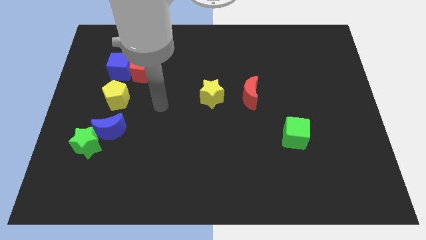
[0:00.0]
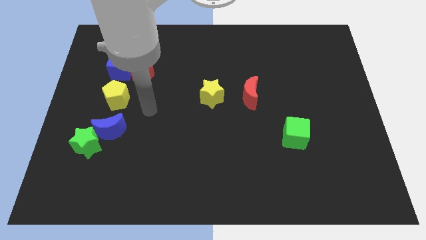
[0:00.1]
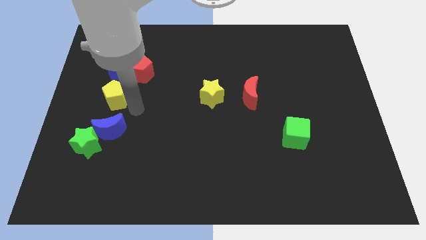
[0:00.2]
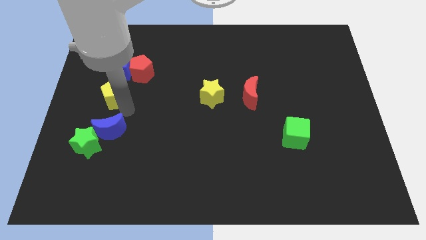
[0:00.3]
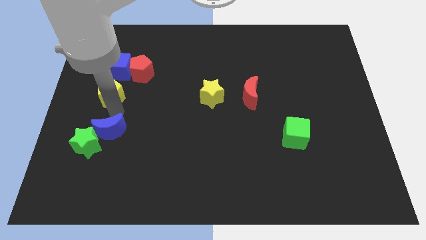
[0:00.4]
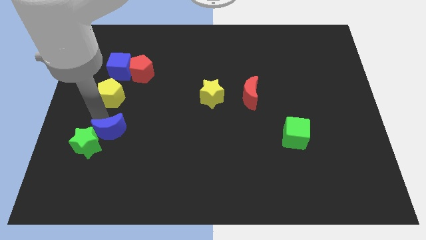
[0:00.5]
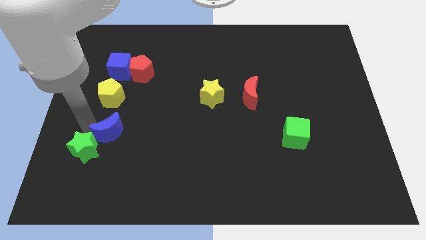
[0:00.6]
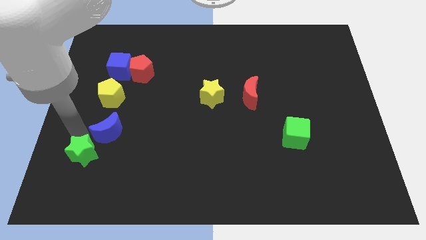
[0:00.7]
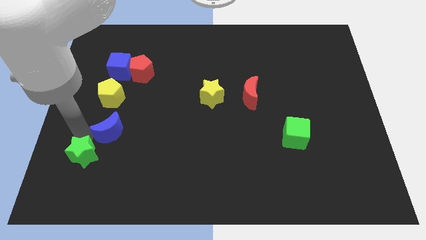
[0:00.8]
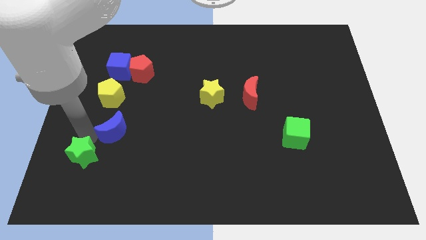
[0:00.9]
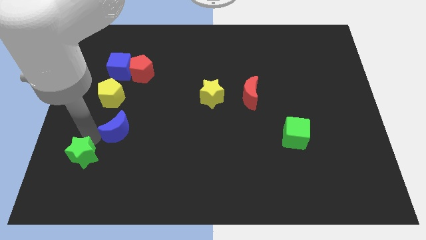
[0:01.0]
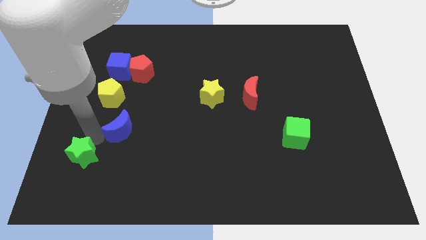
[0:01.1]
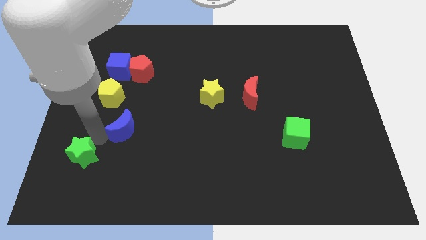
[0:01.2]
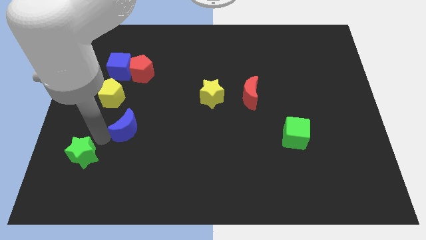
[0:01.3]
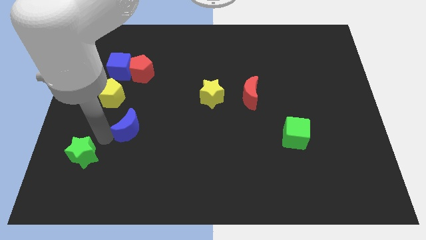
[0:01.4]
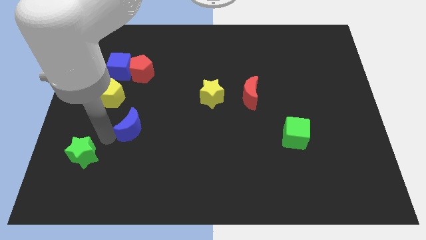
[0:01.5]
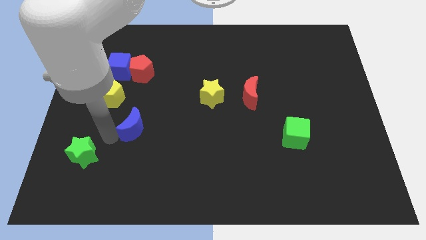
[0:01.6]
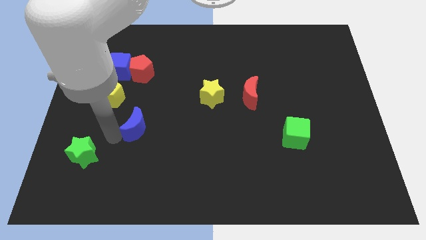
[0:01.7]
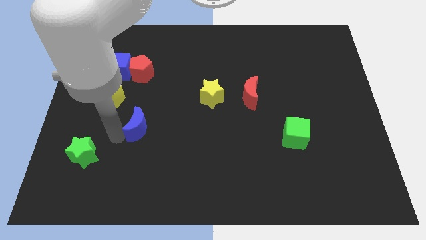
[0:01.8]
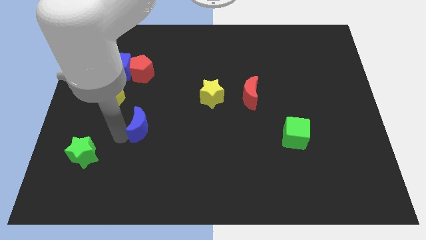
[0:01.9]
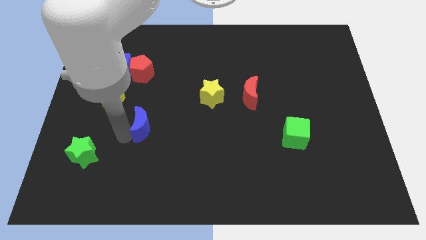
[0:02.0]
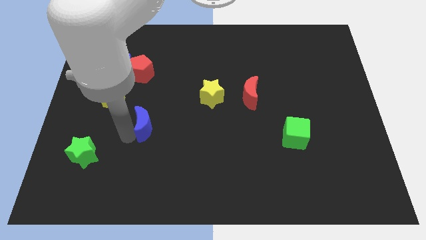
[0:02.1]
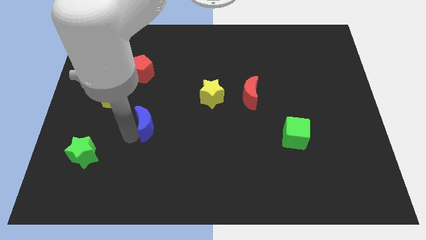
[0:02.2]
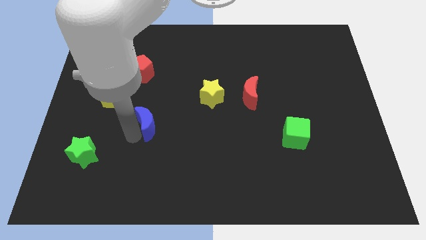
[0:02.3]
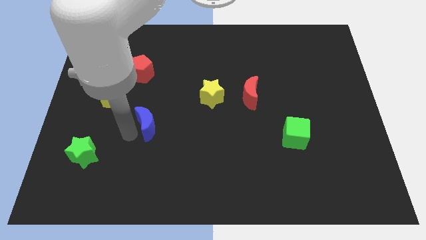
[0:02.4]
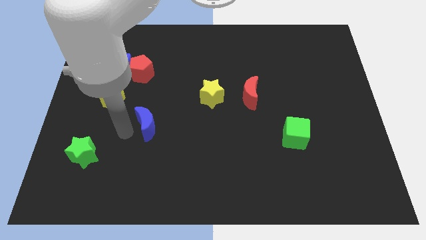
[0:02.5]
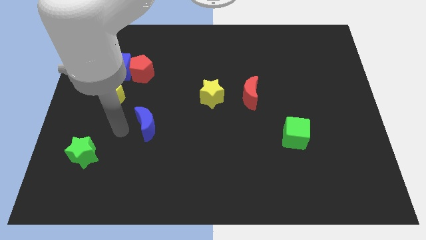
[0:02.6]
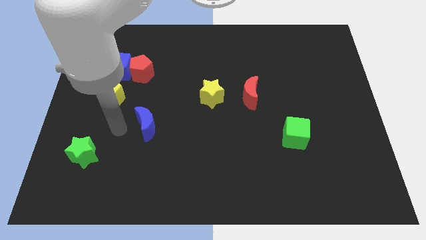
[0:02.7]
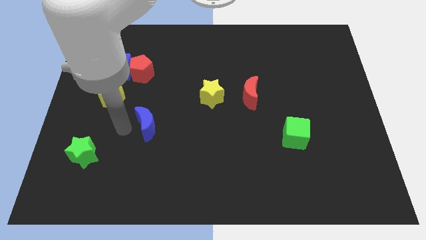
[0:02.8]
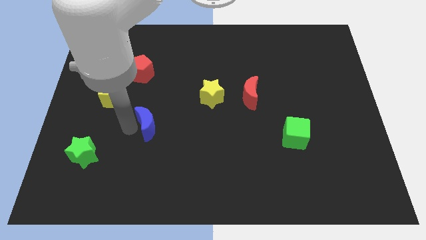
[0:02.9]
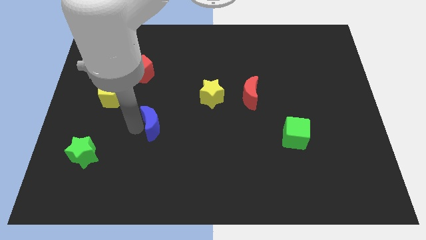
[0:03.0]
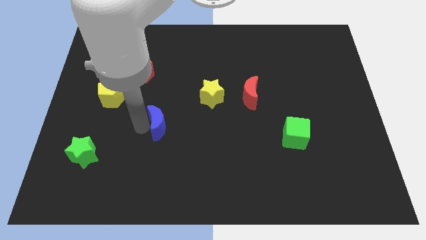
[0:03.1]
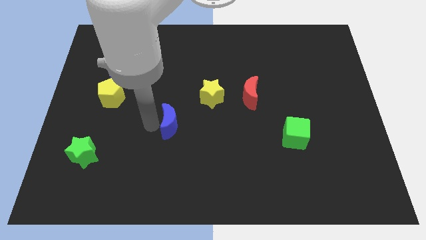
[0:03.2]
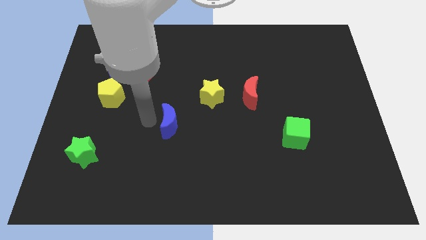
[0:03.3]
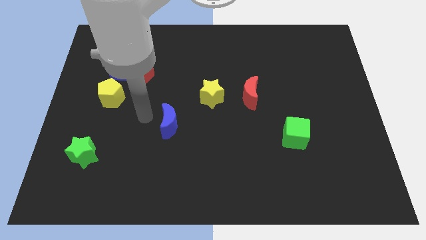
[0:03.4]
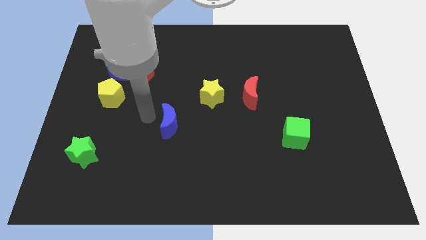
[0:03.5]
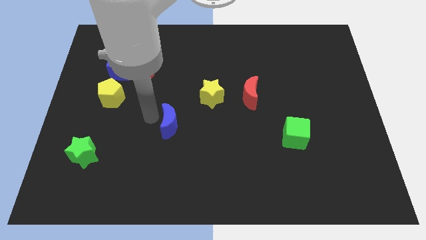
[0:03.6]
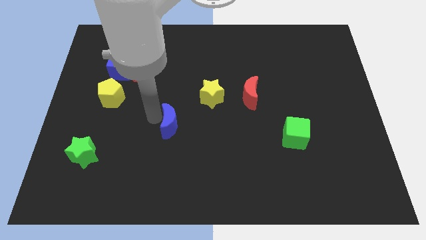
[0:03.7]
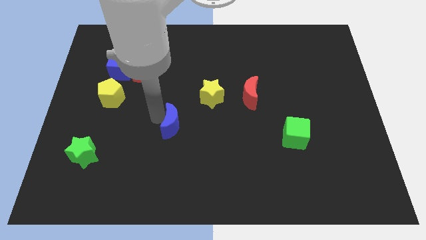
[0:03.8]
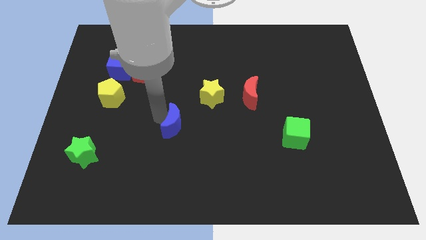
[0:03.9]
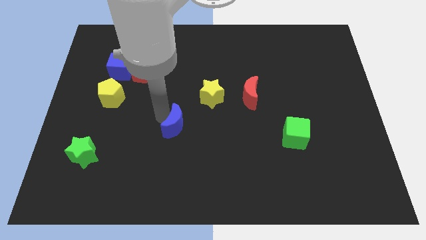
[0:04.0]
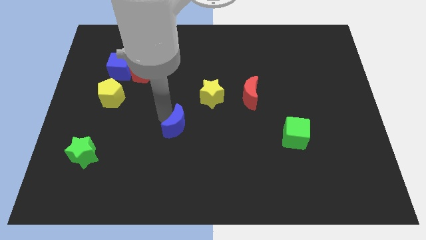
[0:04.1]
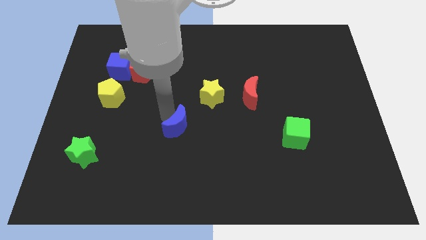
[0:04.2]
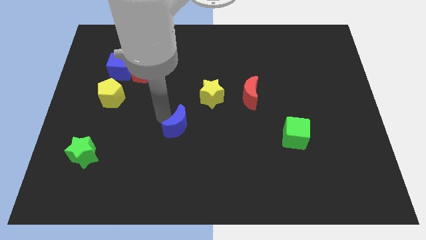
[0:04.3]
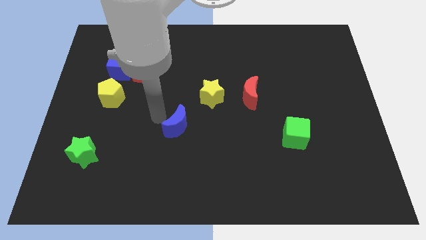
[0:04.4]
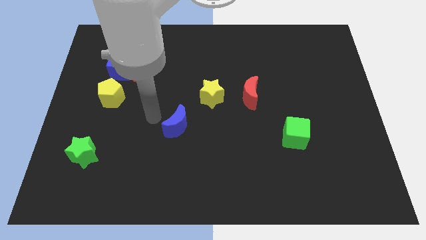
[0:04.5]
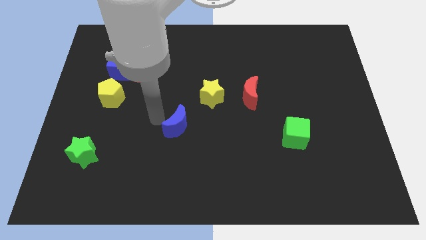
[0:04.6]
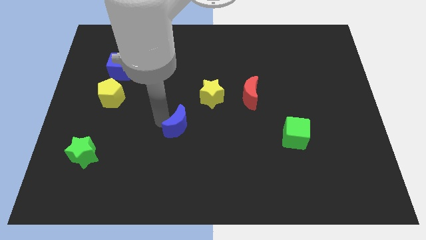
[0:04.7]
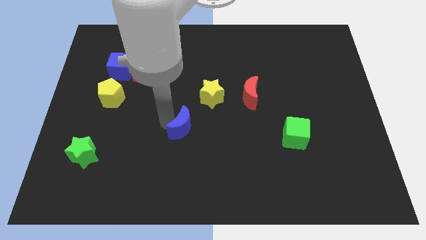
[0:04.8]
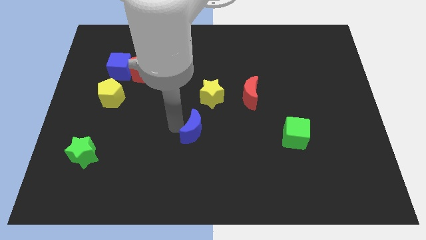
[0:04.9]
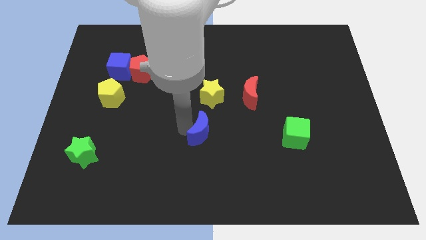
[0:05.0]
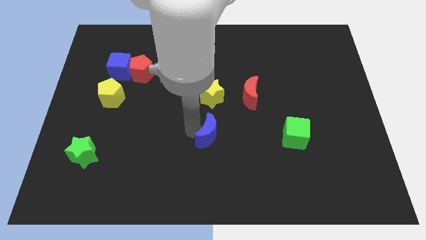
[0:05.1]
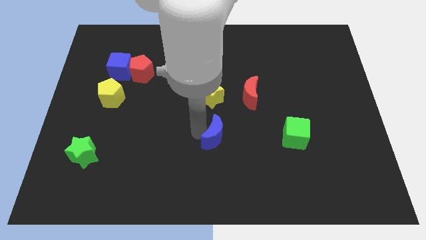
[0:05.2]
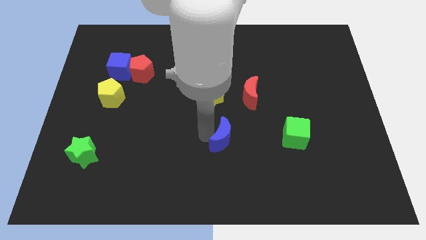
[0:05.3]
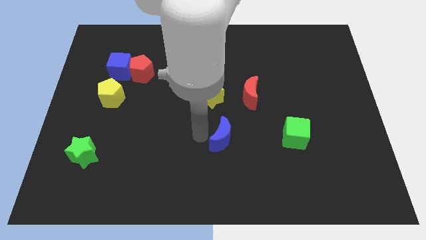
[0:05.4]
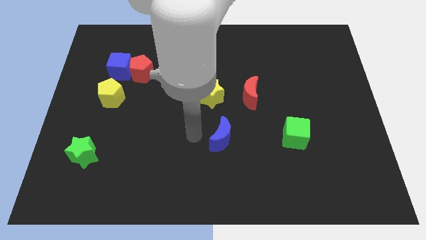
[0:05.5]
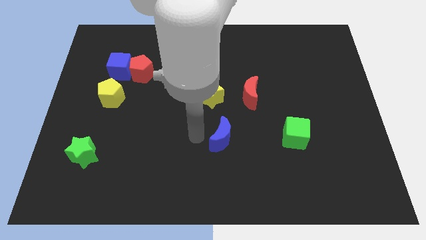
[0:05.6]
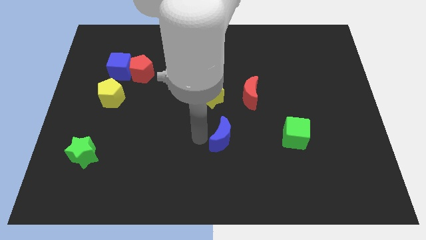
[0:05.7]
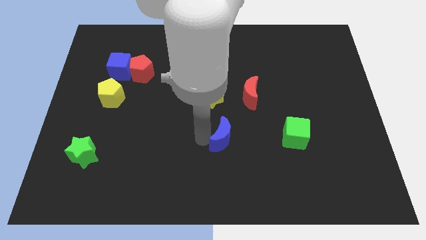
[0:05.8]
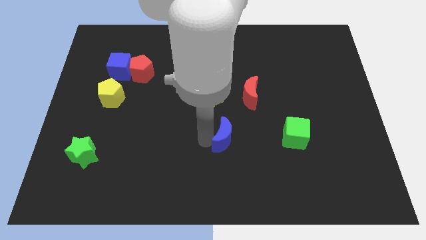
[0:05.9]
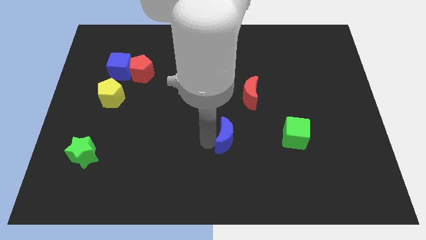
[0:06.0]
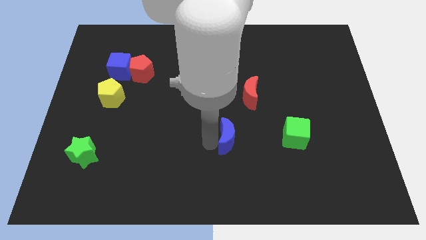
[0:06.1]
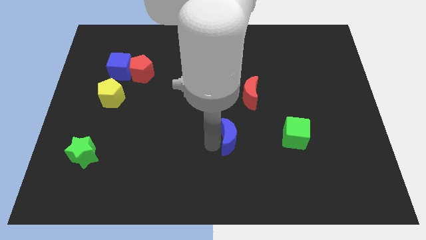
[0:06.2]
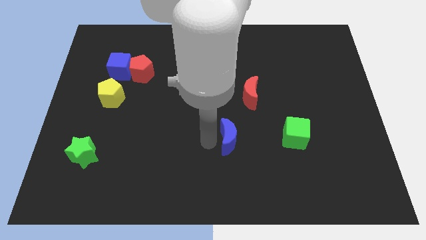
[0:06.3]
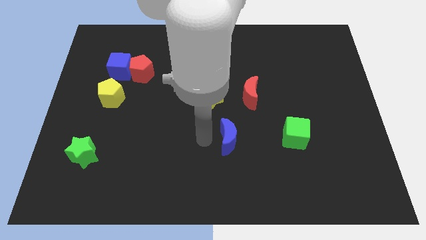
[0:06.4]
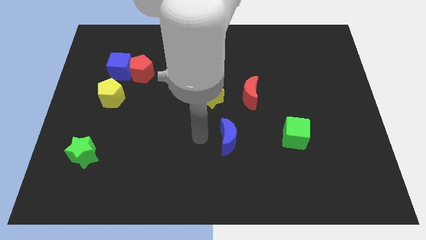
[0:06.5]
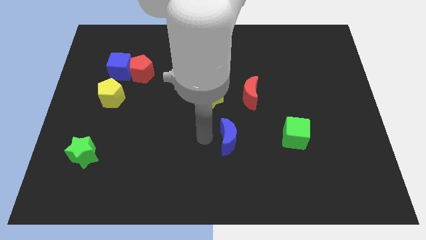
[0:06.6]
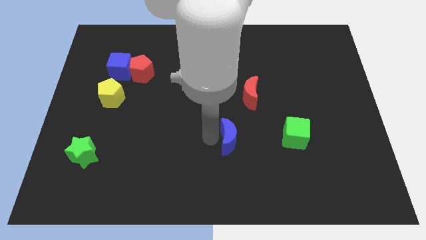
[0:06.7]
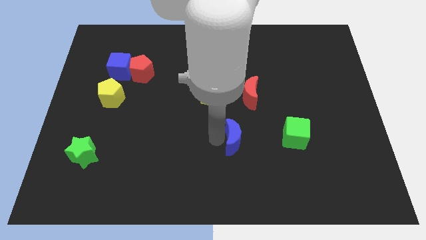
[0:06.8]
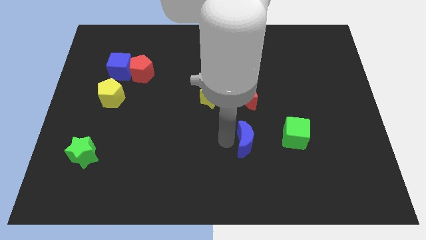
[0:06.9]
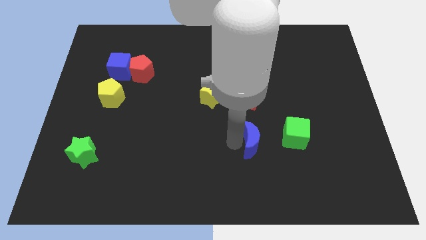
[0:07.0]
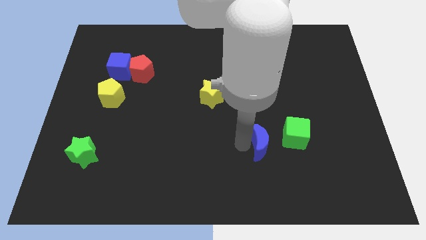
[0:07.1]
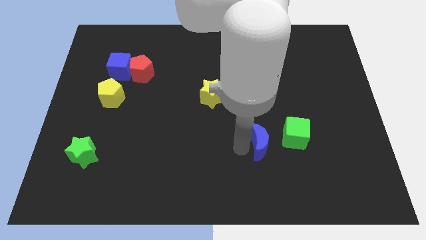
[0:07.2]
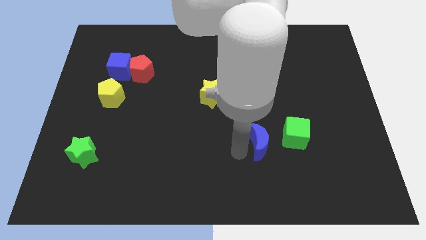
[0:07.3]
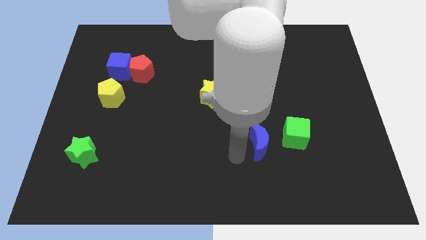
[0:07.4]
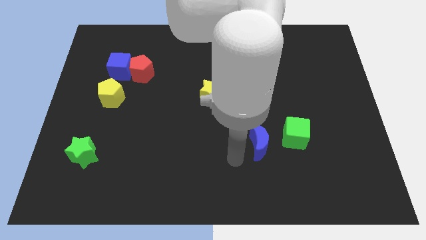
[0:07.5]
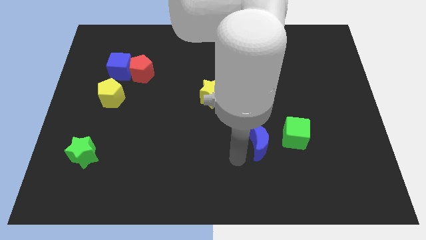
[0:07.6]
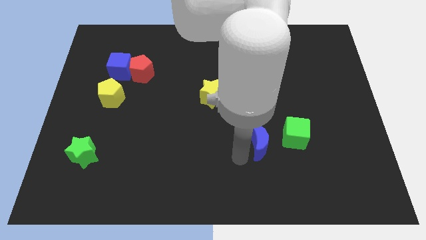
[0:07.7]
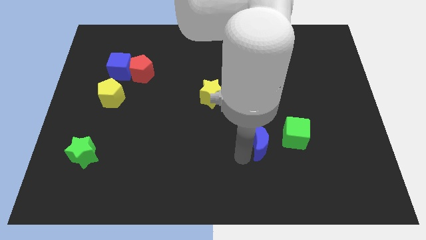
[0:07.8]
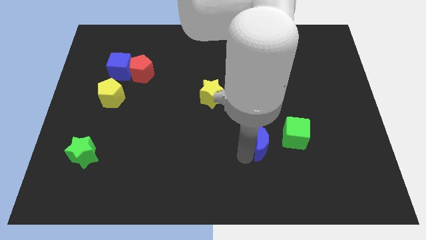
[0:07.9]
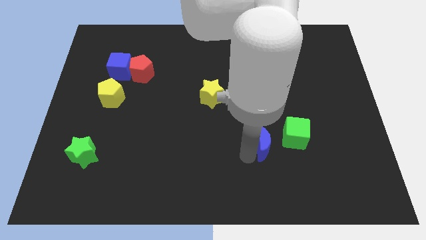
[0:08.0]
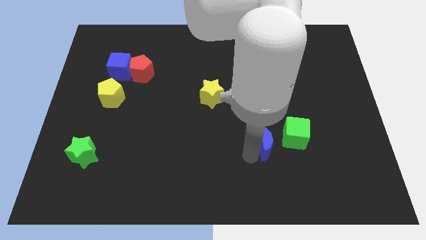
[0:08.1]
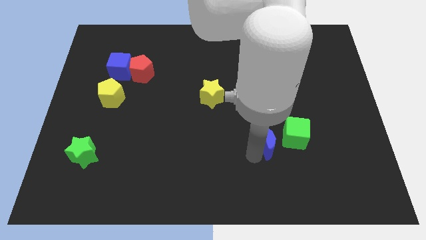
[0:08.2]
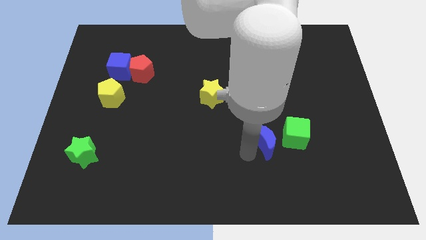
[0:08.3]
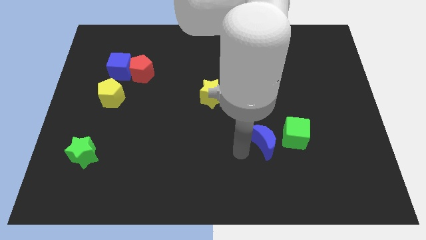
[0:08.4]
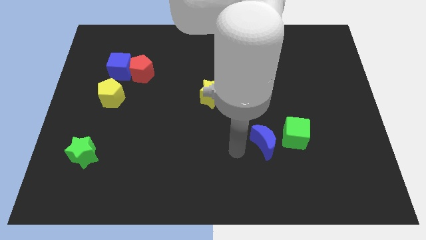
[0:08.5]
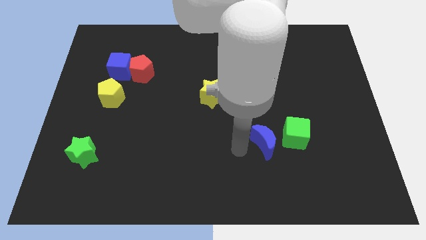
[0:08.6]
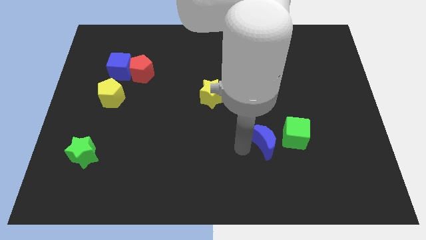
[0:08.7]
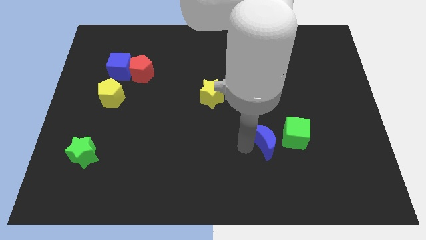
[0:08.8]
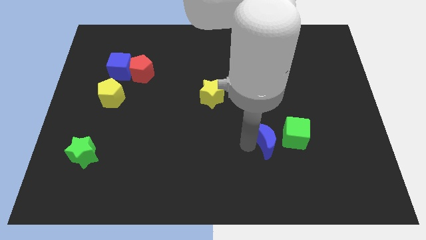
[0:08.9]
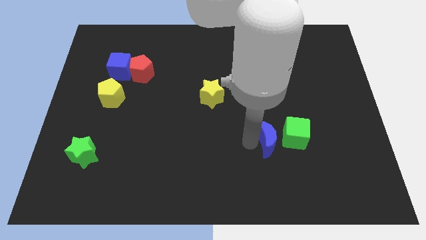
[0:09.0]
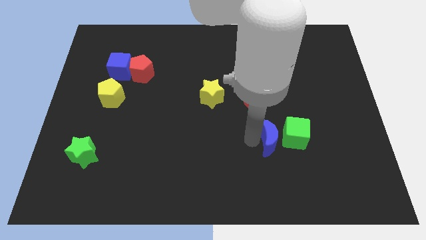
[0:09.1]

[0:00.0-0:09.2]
move the blue moon towards the green cube
